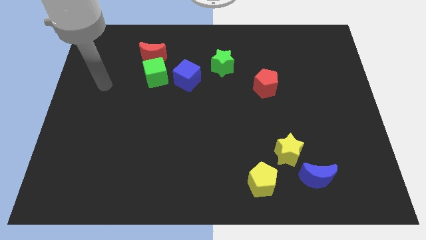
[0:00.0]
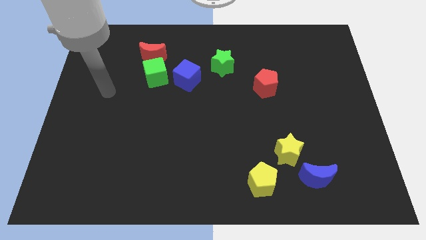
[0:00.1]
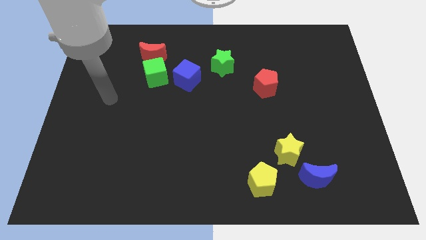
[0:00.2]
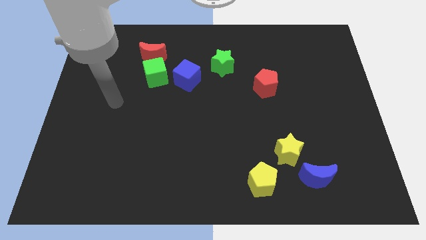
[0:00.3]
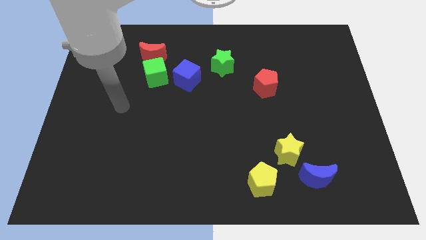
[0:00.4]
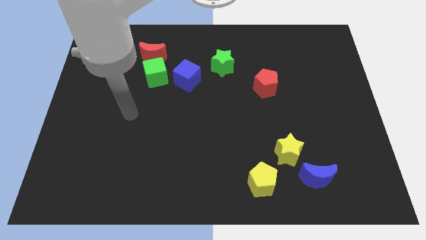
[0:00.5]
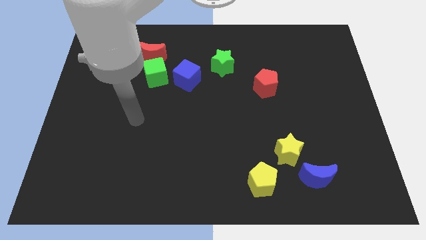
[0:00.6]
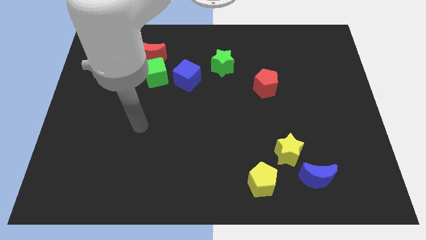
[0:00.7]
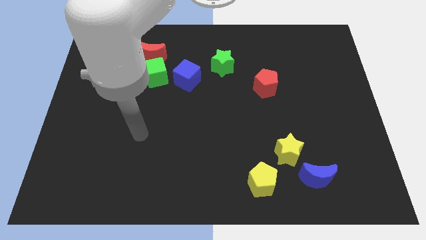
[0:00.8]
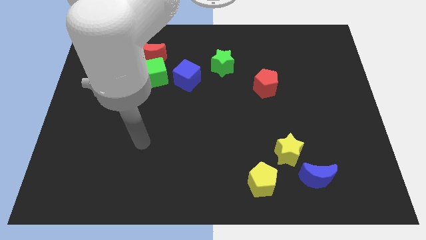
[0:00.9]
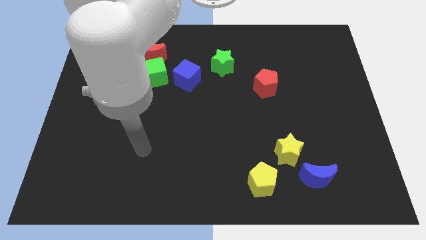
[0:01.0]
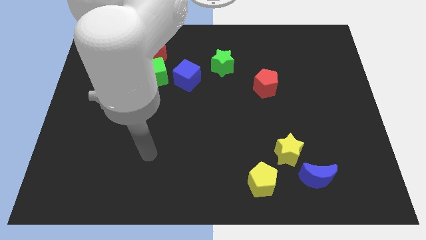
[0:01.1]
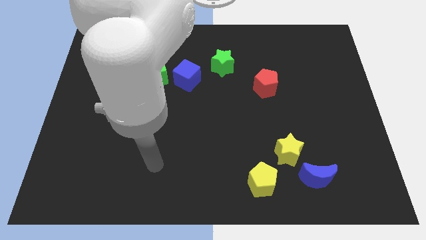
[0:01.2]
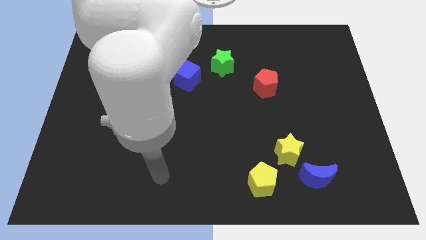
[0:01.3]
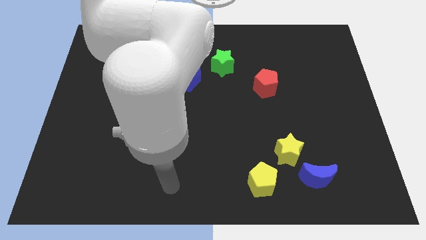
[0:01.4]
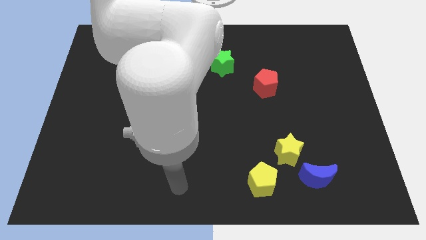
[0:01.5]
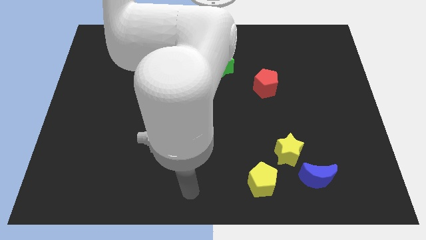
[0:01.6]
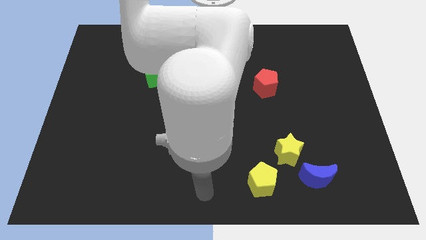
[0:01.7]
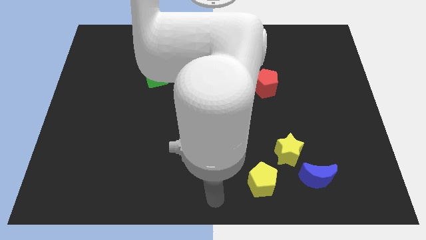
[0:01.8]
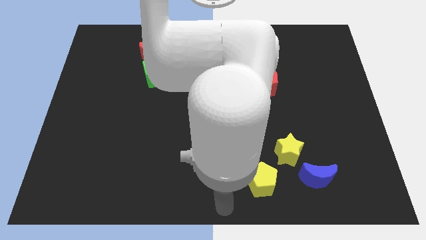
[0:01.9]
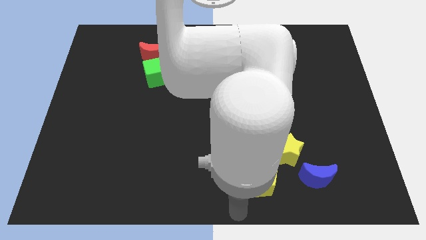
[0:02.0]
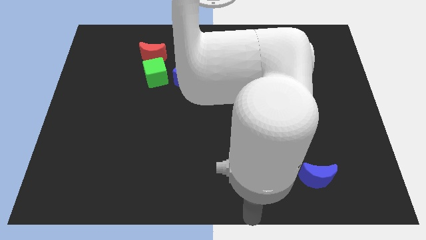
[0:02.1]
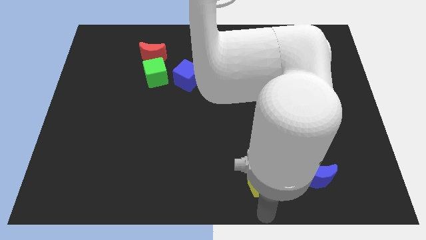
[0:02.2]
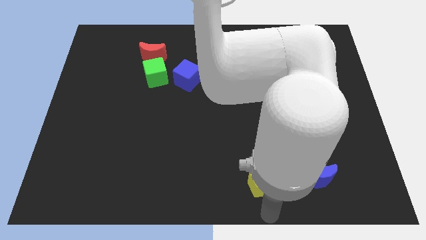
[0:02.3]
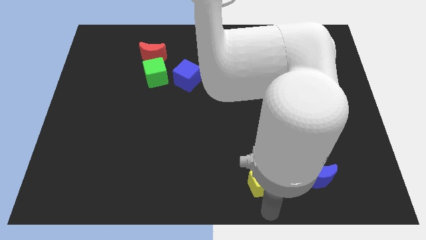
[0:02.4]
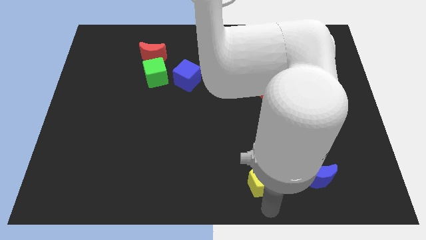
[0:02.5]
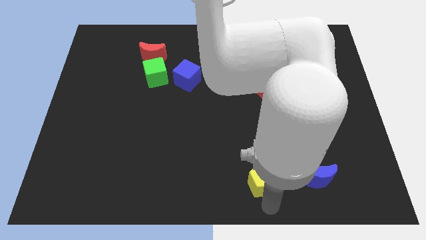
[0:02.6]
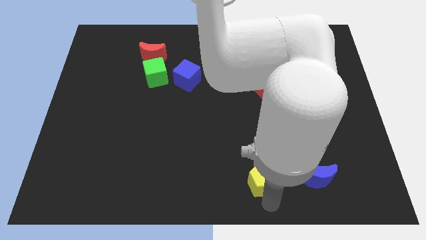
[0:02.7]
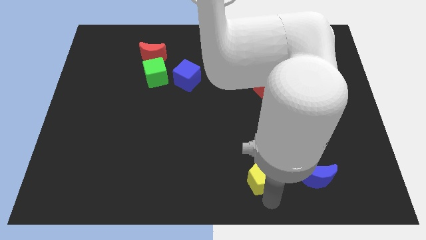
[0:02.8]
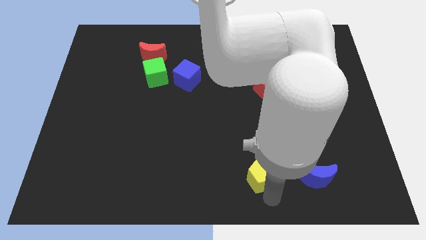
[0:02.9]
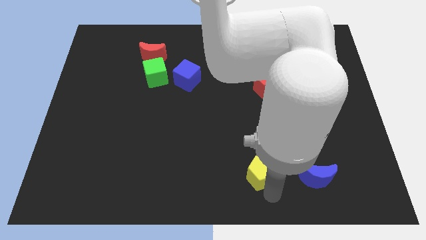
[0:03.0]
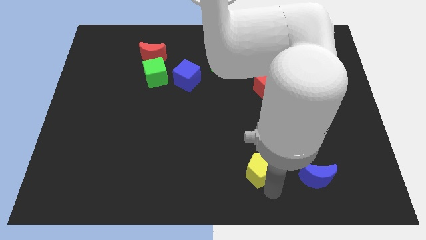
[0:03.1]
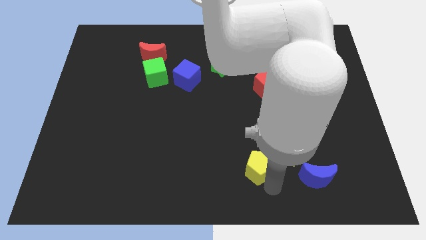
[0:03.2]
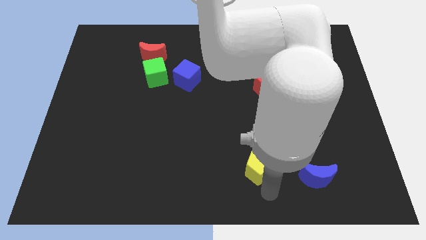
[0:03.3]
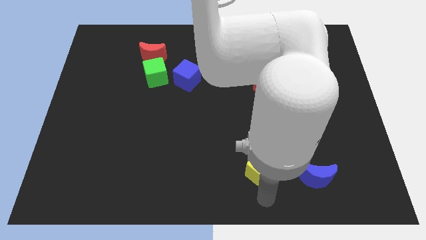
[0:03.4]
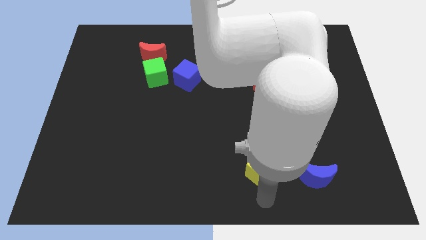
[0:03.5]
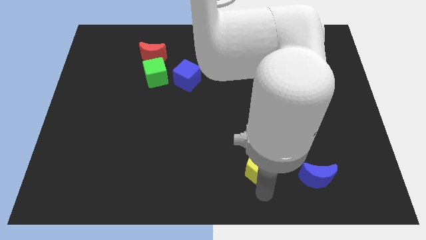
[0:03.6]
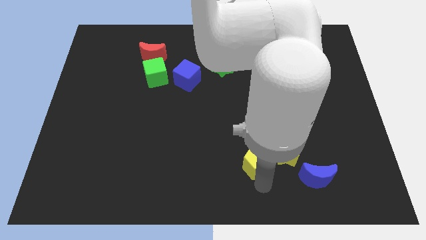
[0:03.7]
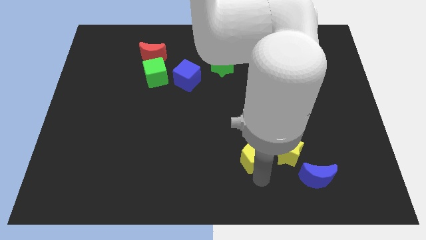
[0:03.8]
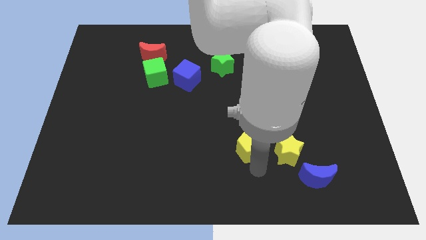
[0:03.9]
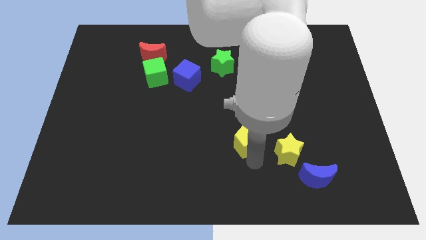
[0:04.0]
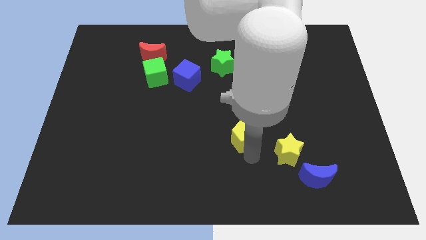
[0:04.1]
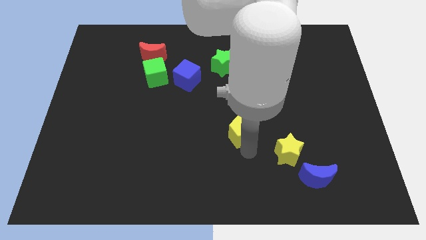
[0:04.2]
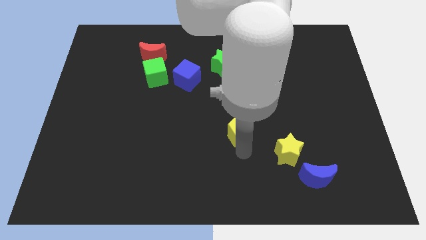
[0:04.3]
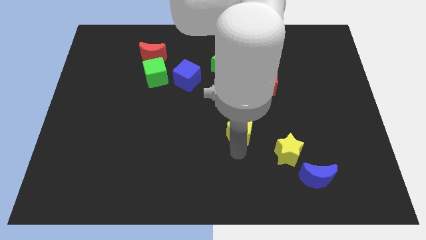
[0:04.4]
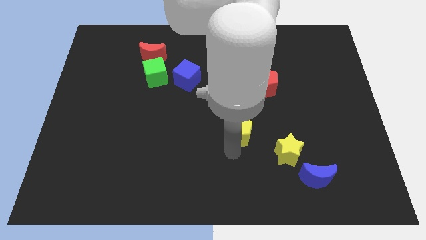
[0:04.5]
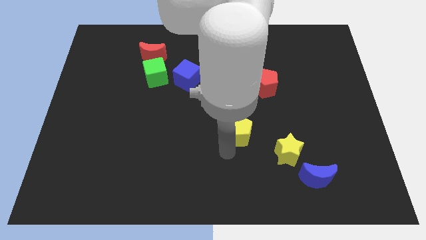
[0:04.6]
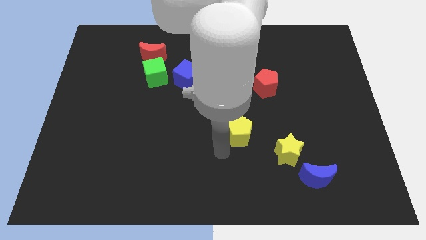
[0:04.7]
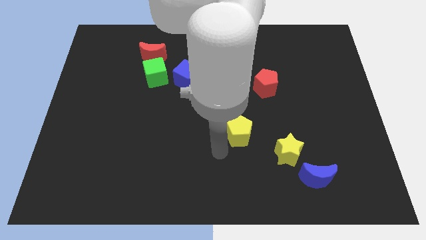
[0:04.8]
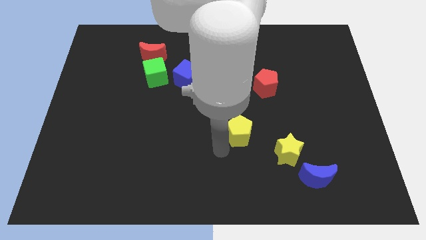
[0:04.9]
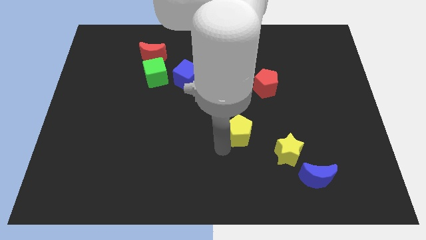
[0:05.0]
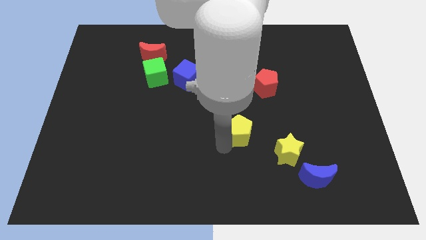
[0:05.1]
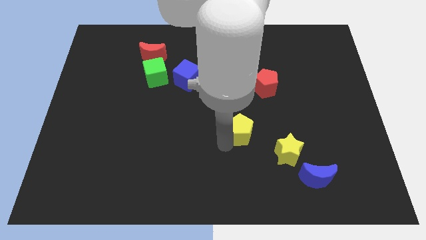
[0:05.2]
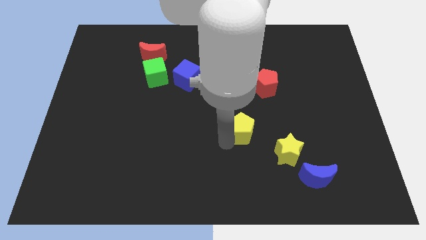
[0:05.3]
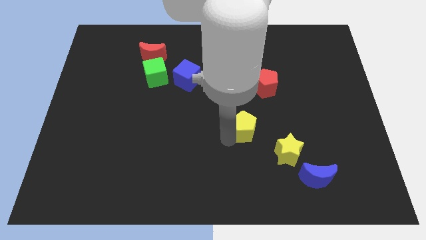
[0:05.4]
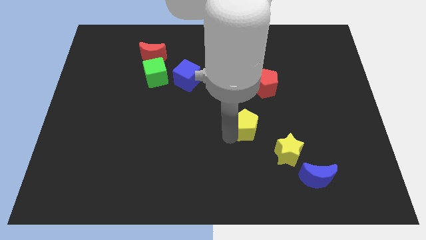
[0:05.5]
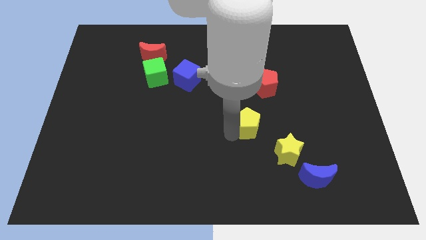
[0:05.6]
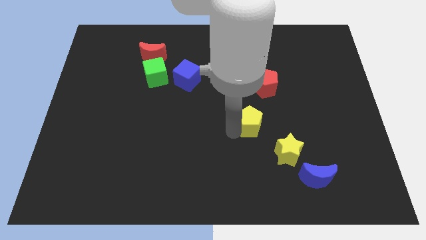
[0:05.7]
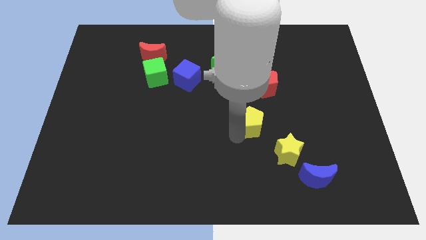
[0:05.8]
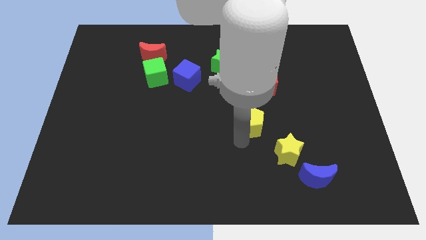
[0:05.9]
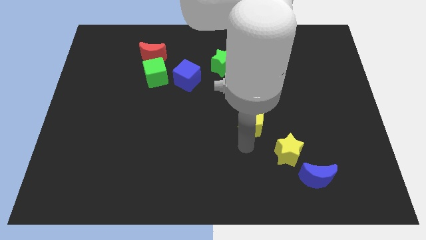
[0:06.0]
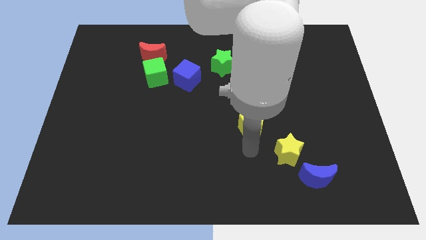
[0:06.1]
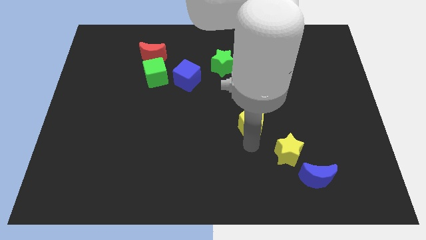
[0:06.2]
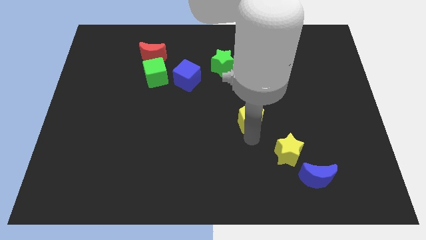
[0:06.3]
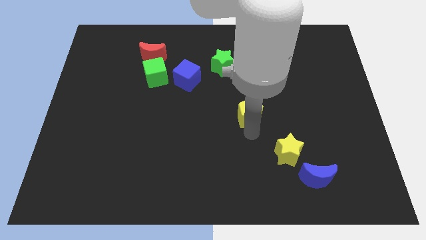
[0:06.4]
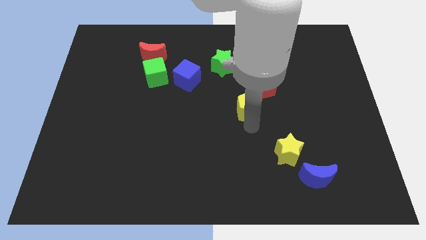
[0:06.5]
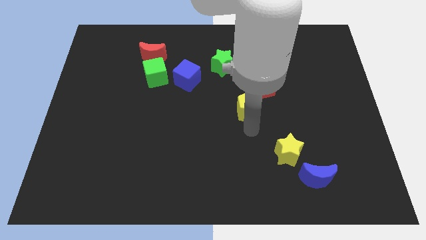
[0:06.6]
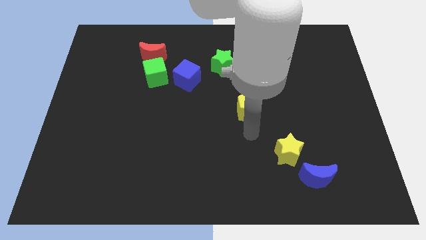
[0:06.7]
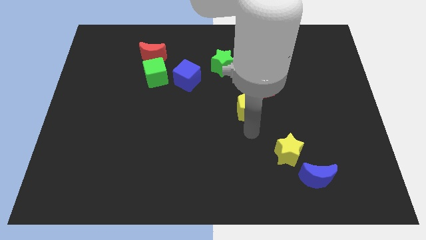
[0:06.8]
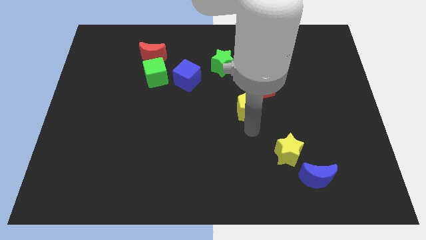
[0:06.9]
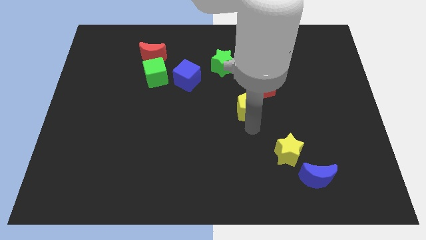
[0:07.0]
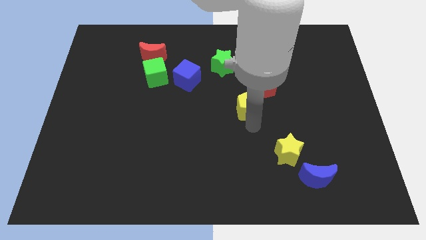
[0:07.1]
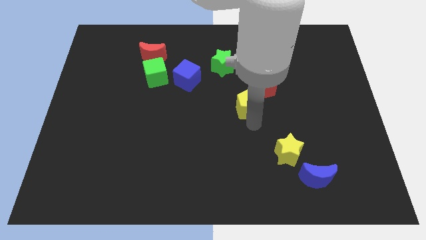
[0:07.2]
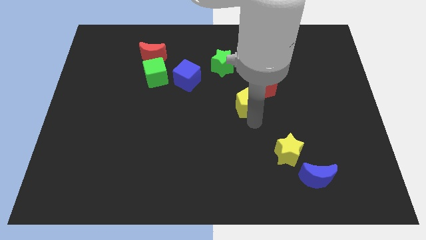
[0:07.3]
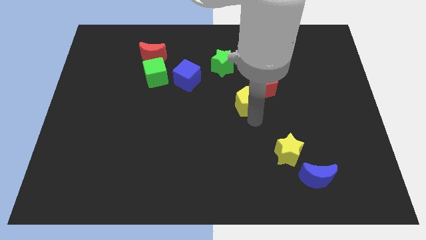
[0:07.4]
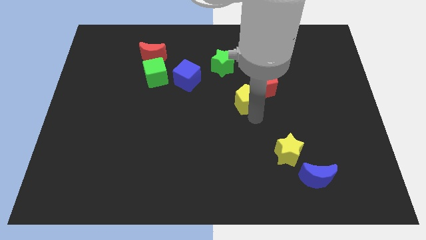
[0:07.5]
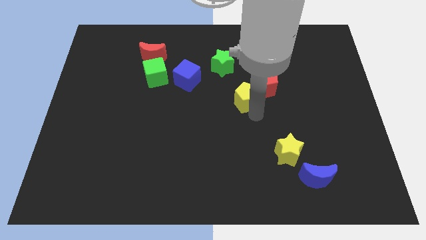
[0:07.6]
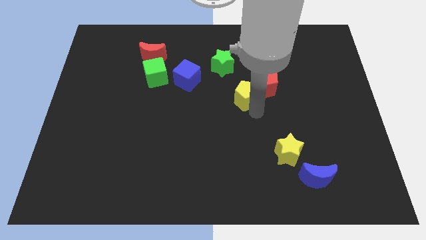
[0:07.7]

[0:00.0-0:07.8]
slide the yellow pentagon to the bottom right side of the green star
